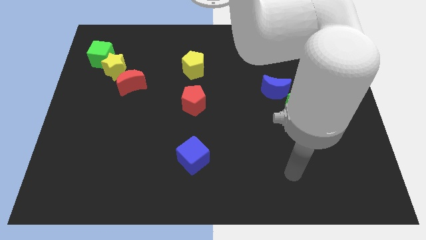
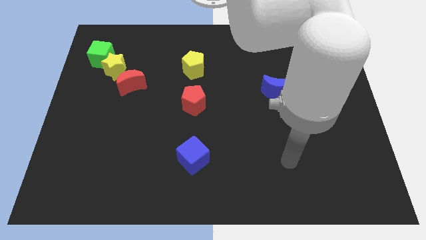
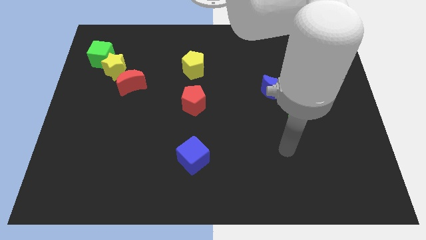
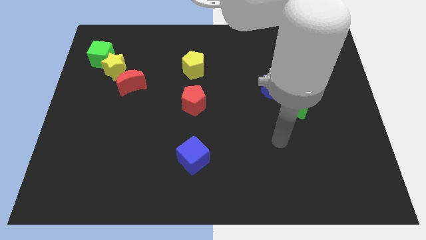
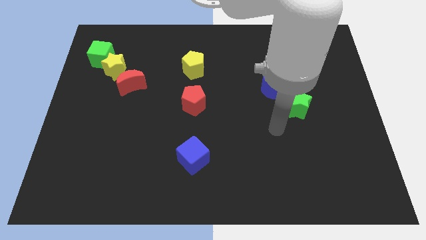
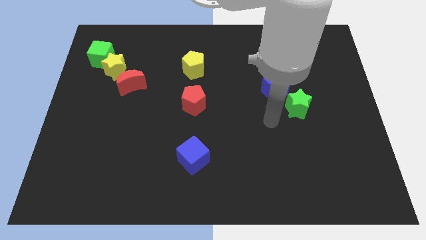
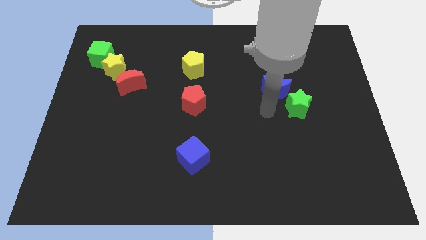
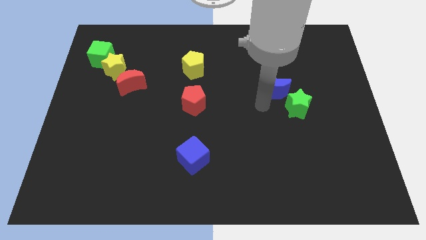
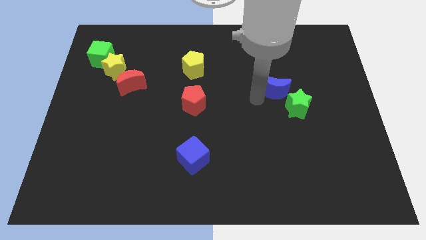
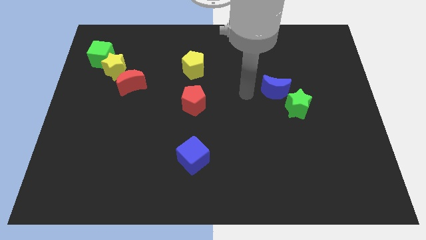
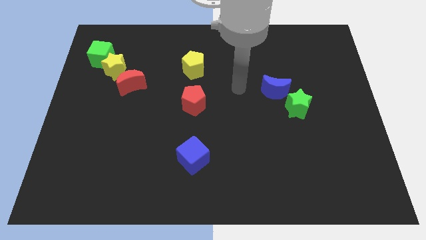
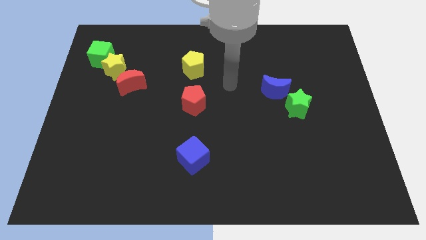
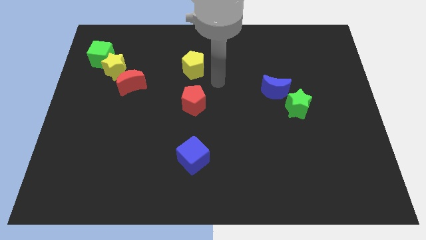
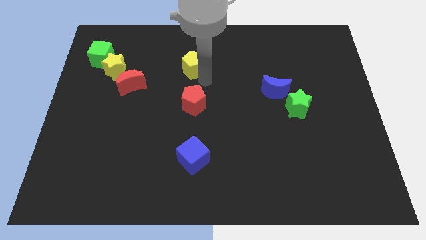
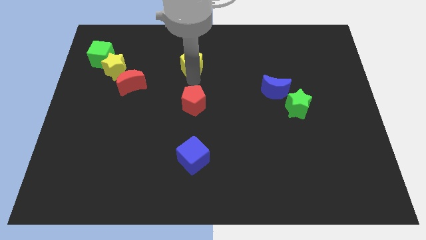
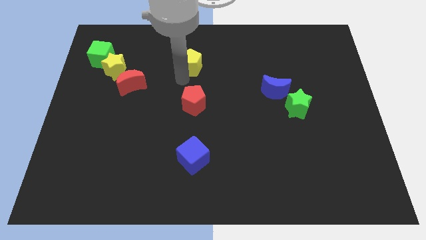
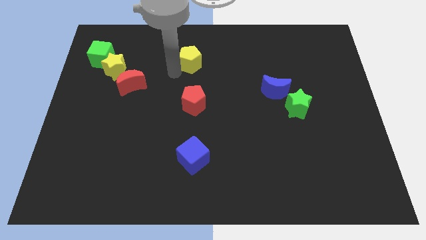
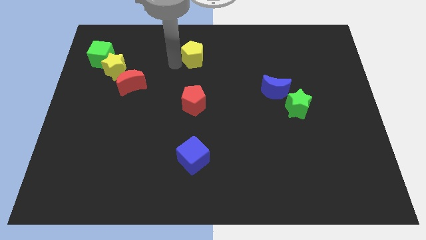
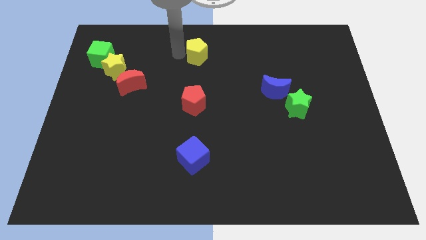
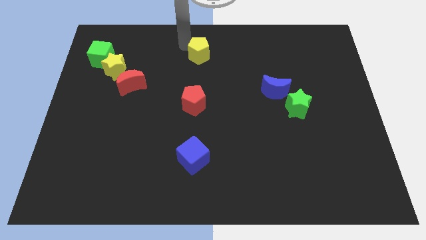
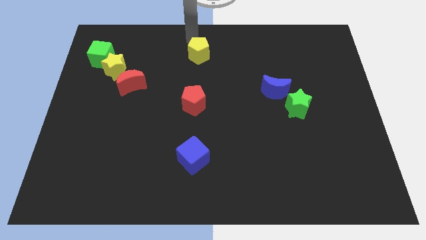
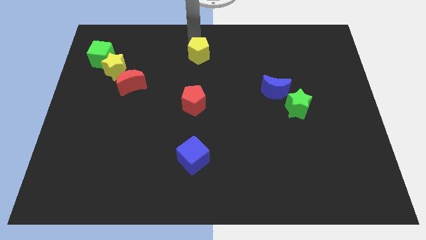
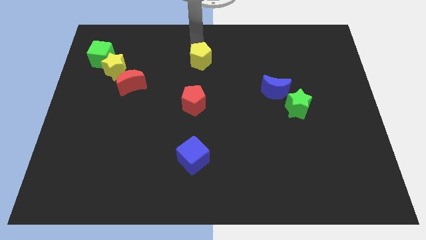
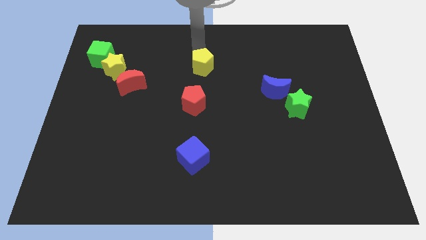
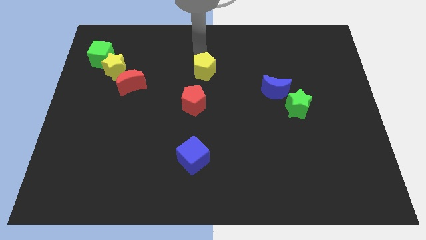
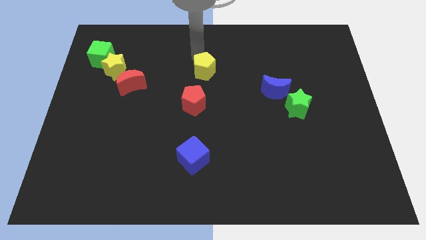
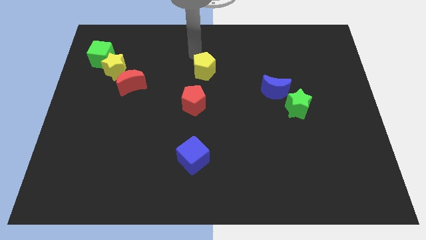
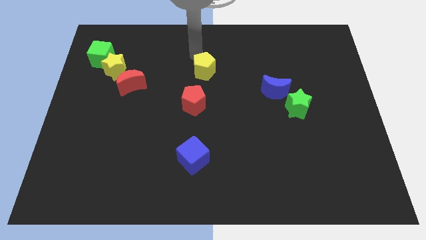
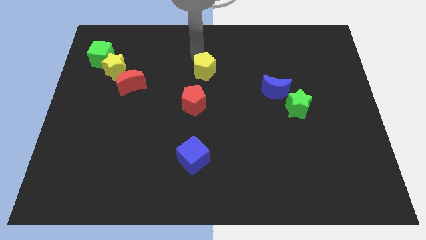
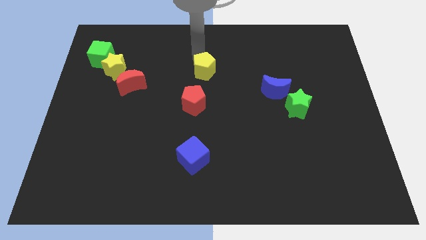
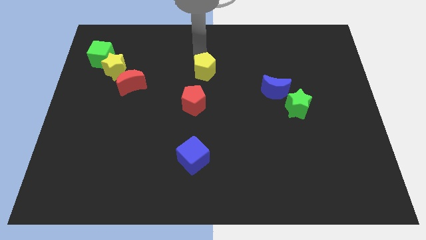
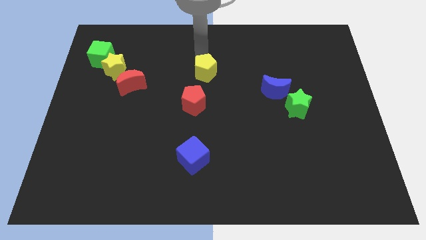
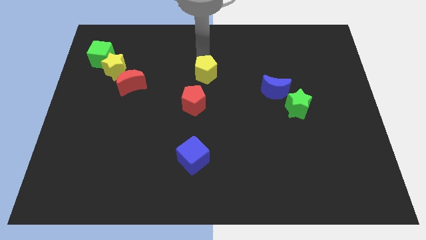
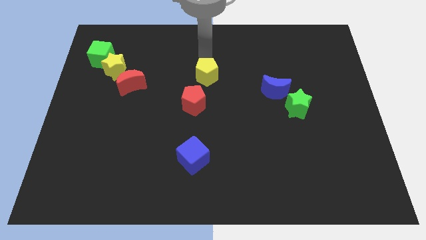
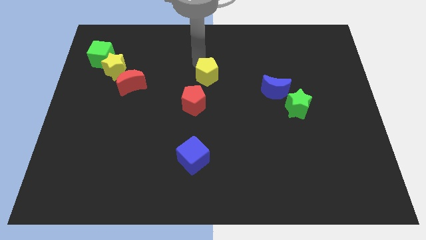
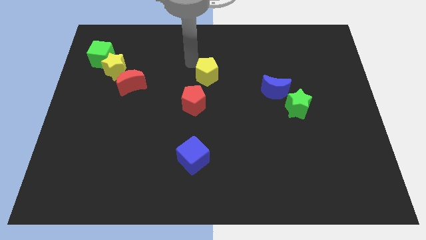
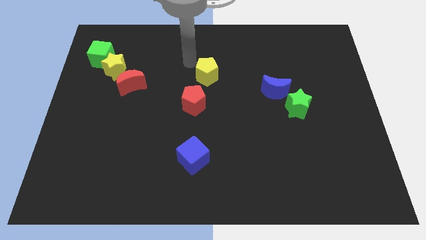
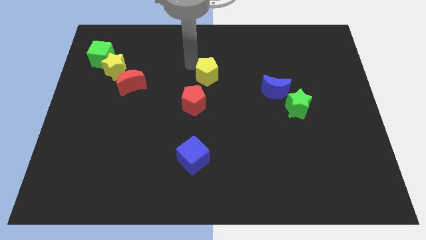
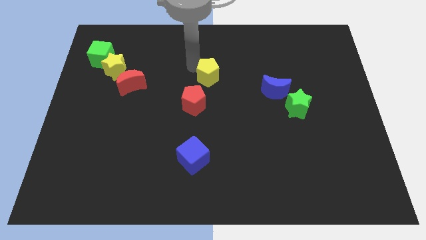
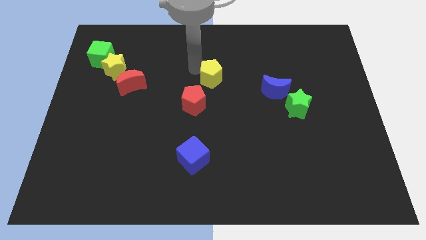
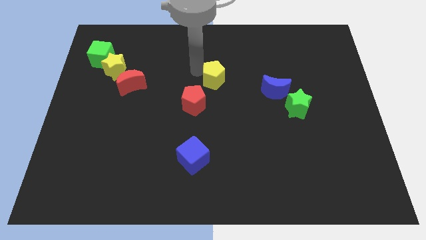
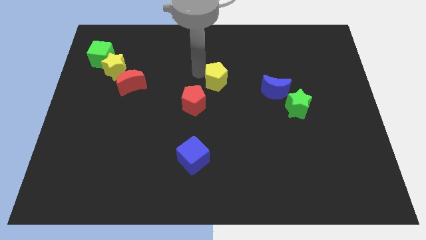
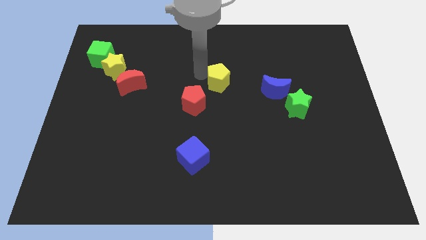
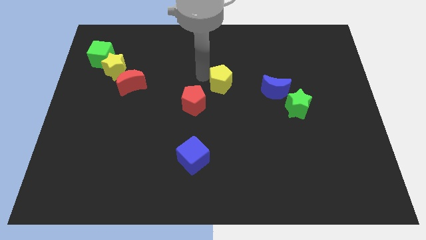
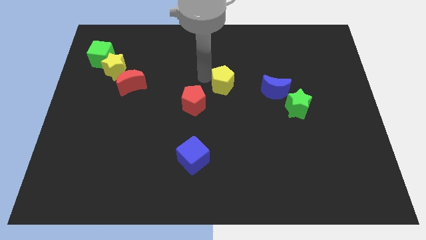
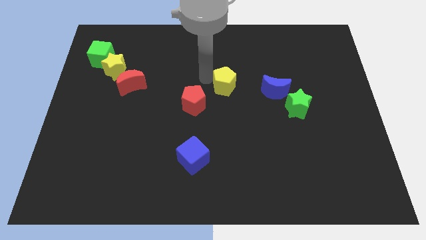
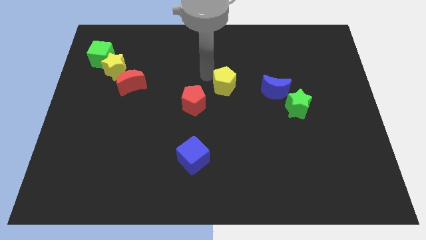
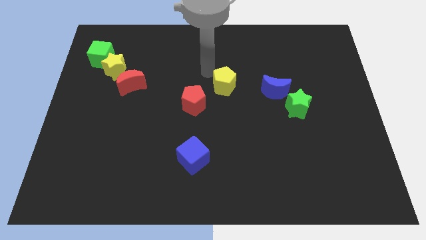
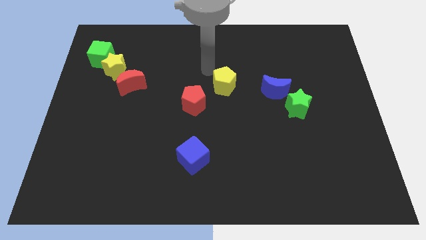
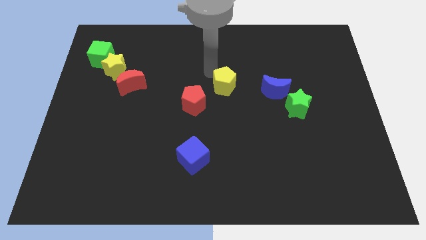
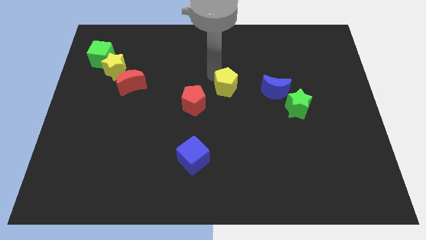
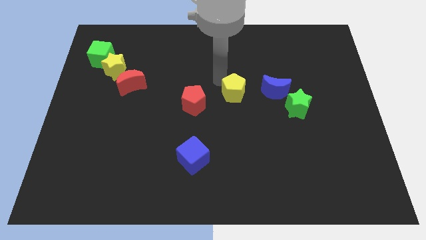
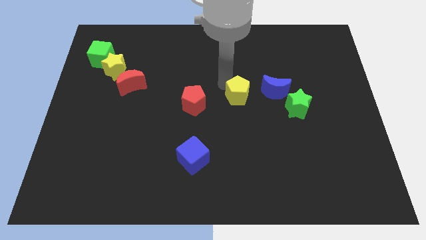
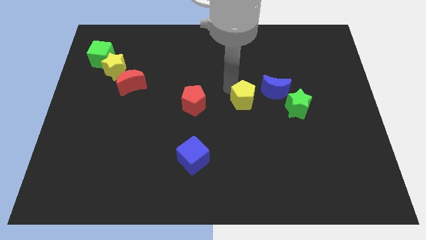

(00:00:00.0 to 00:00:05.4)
move the yellow pentagon to the bottom left side of the blue moon

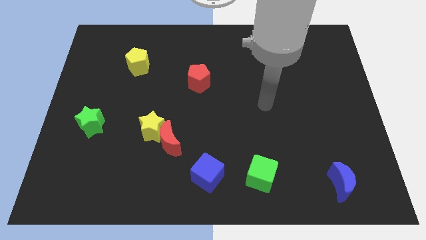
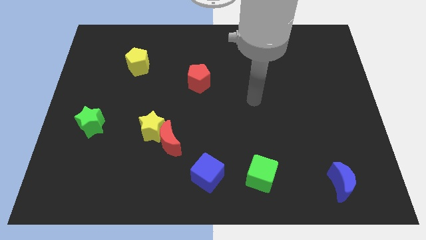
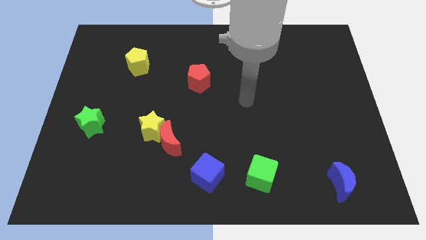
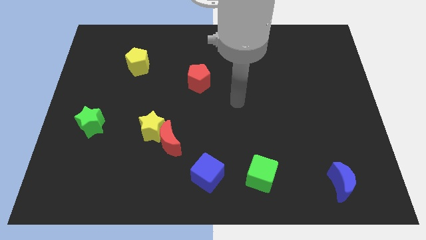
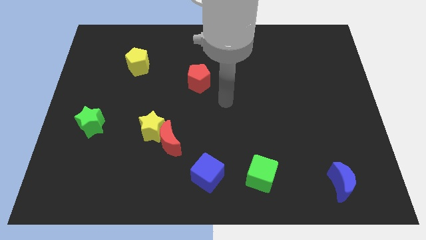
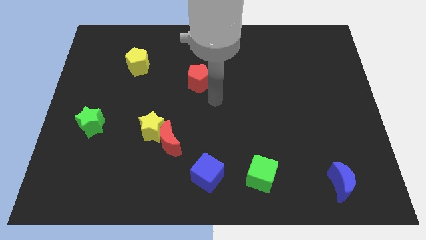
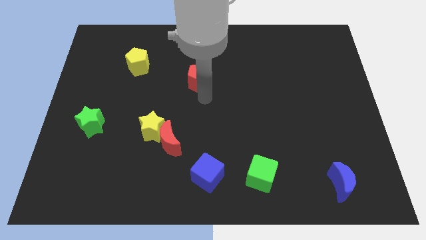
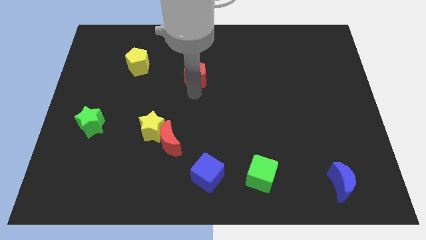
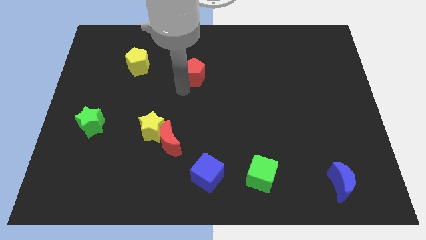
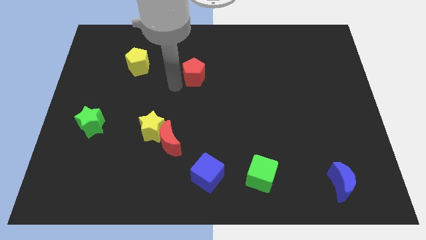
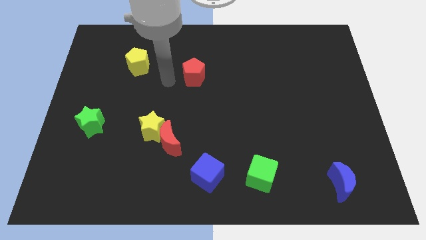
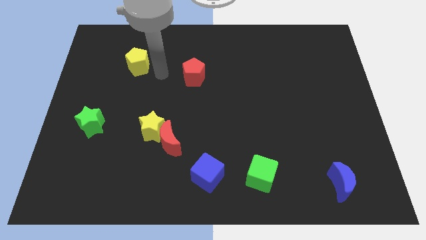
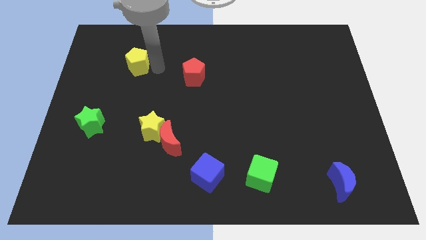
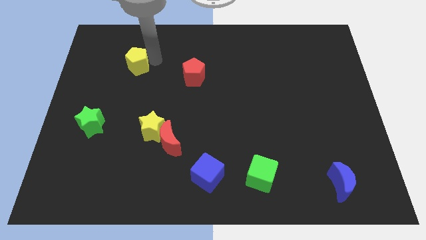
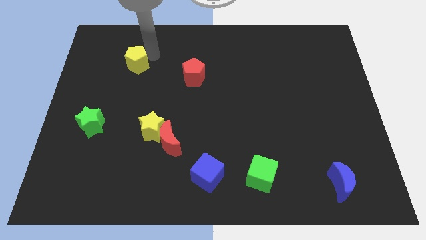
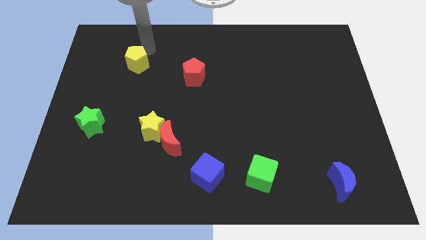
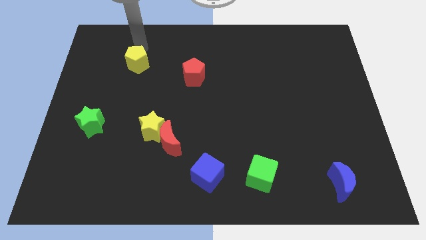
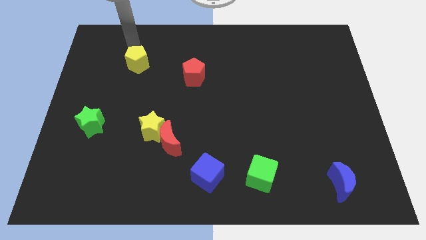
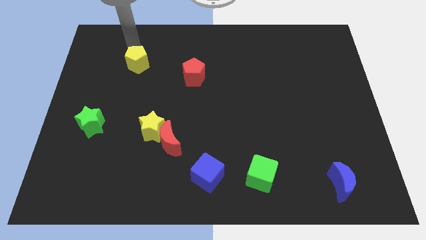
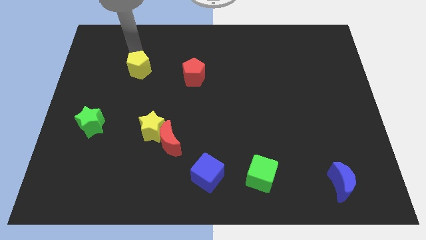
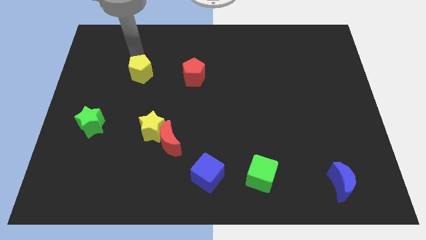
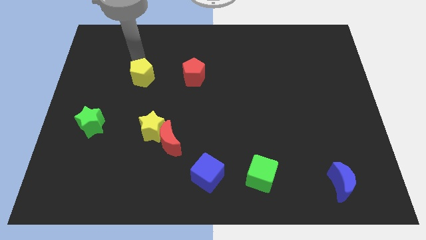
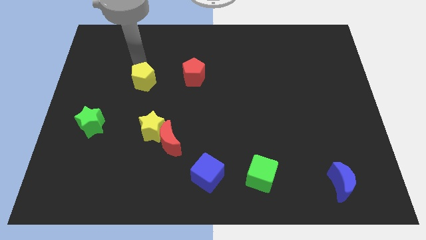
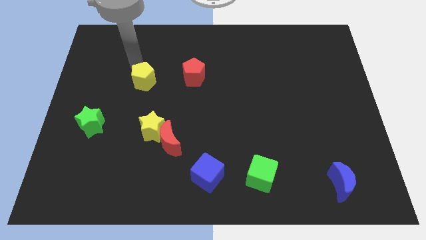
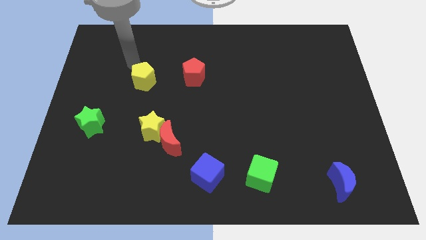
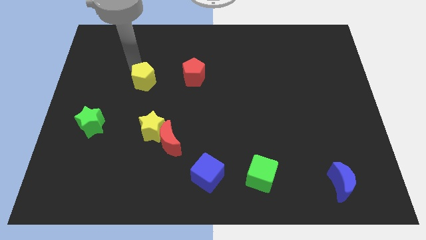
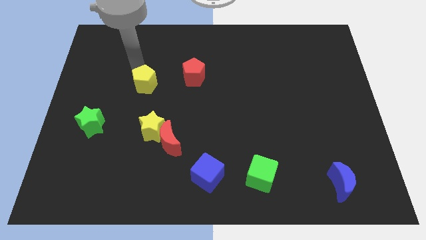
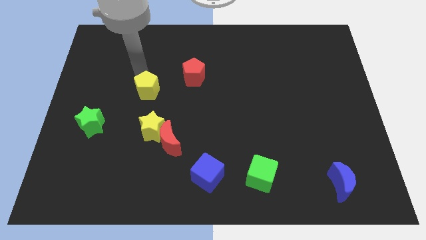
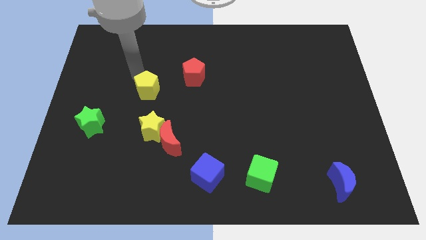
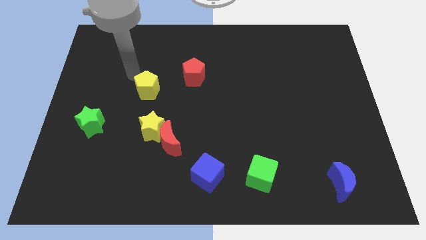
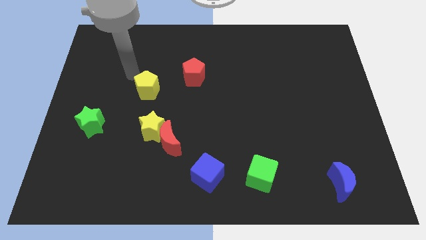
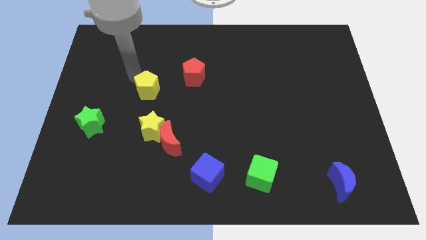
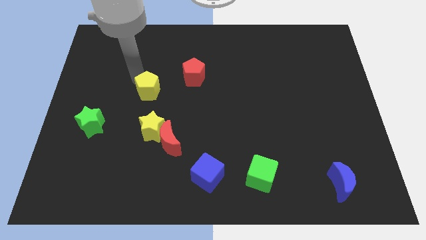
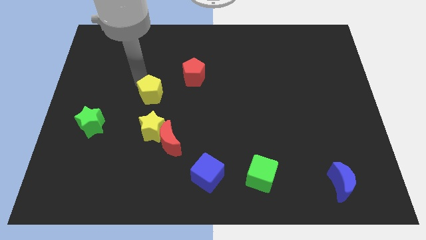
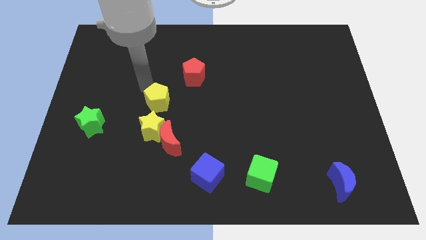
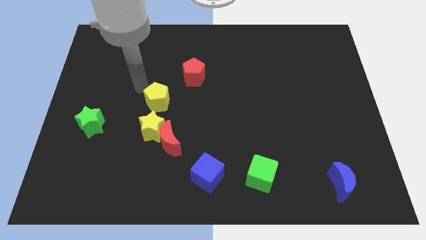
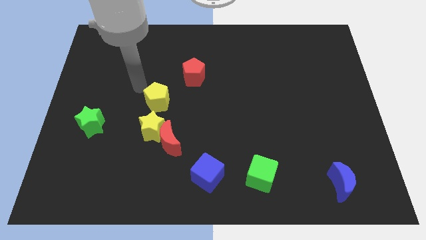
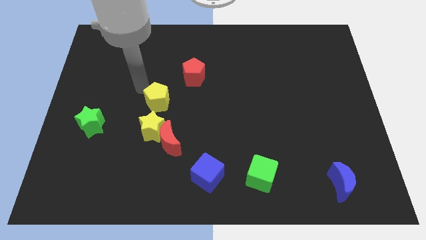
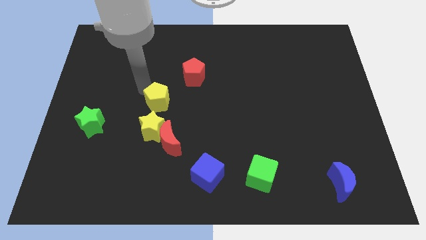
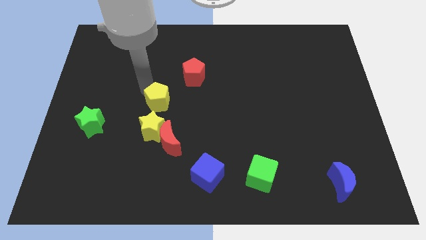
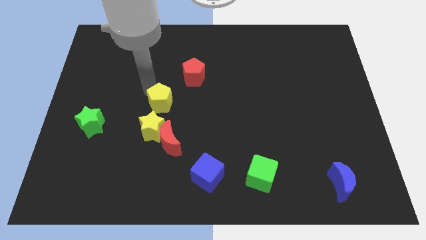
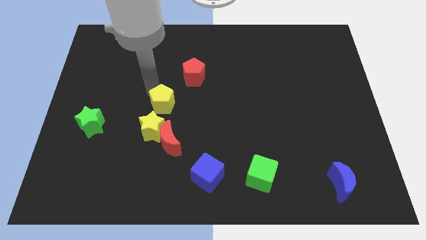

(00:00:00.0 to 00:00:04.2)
move the yellow pentagon to the top right of the yellow star
